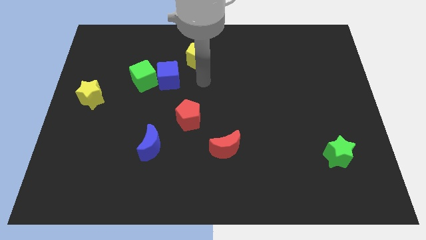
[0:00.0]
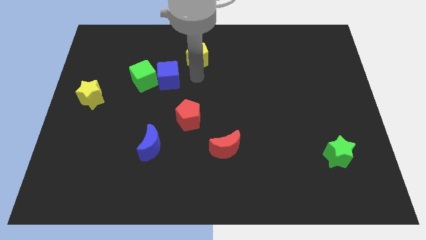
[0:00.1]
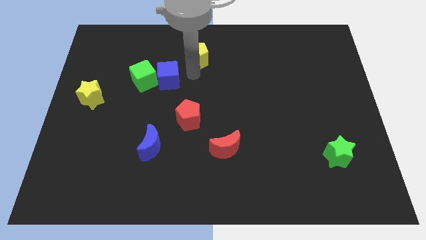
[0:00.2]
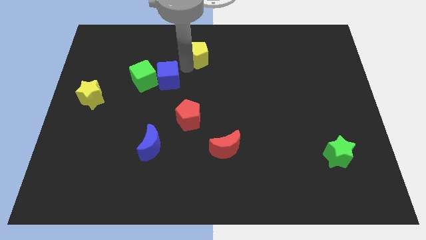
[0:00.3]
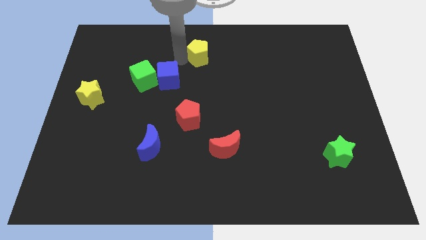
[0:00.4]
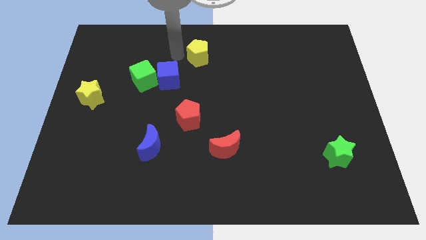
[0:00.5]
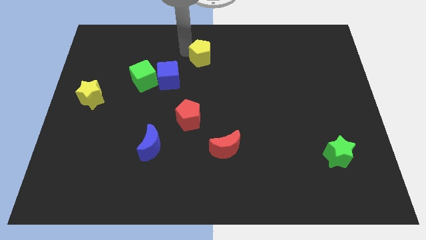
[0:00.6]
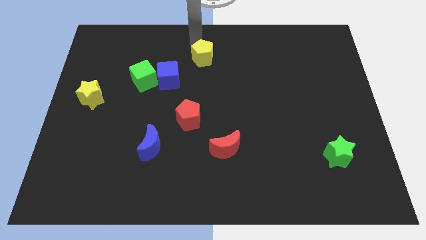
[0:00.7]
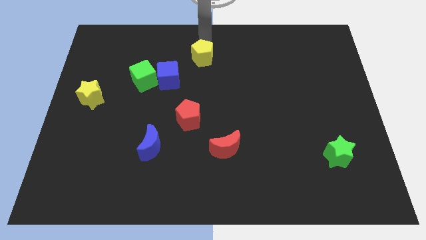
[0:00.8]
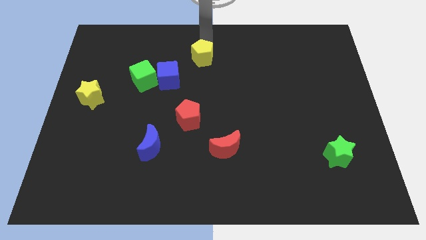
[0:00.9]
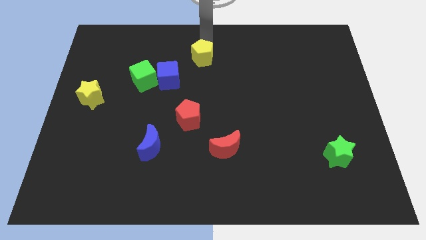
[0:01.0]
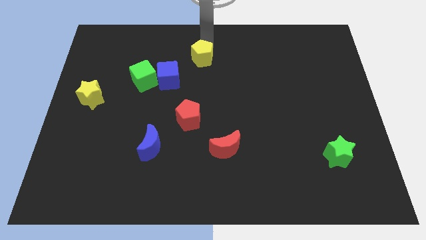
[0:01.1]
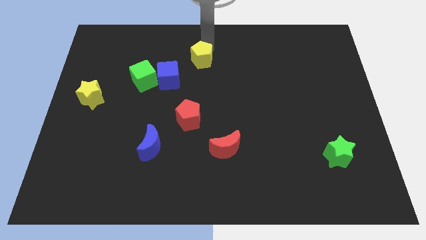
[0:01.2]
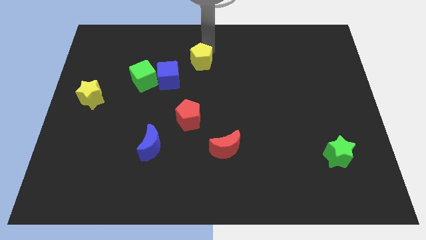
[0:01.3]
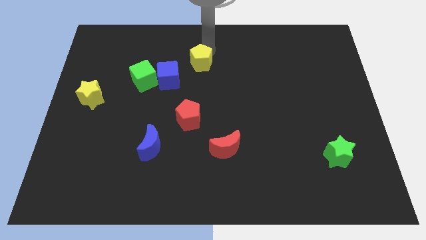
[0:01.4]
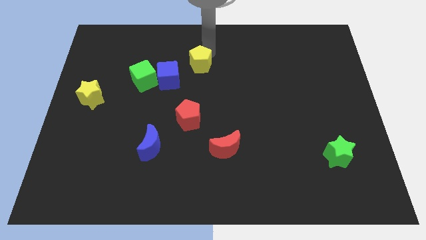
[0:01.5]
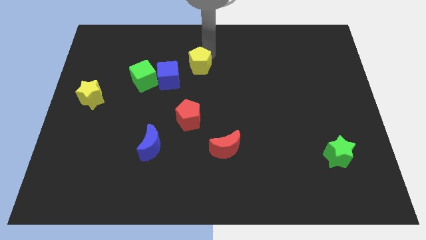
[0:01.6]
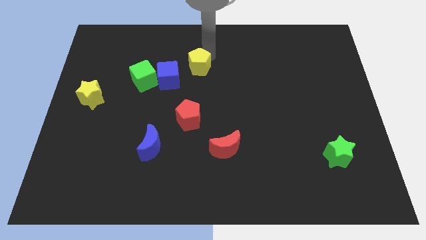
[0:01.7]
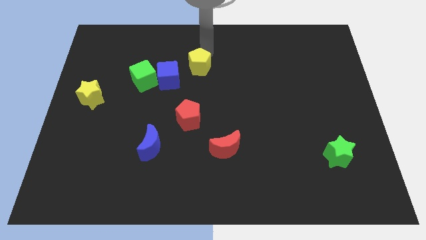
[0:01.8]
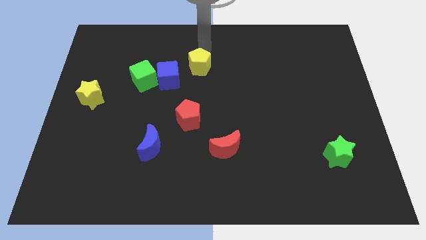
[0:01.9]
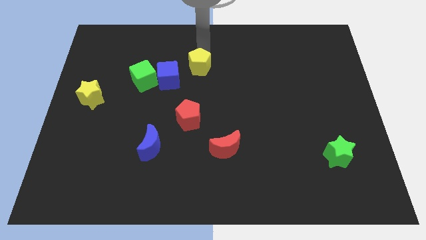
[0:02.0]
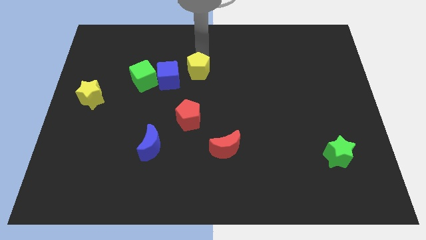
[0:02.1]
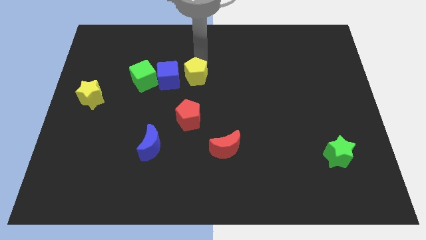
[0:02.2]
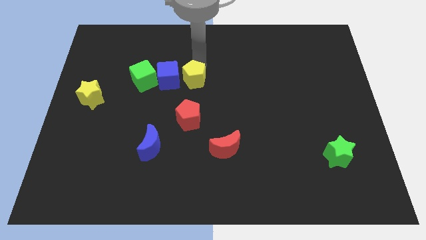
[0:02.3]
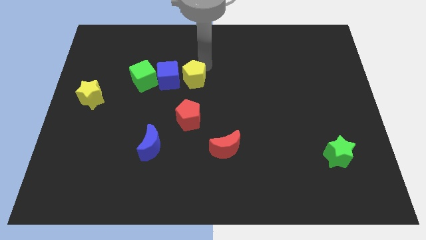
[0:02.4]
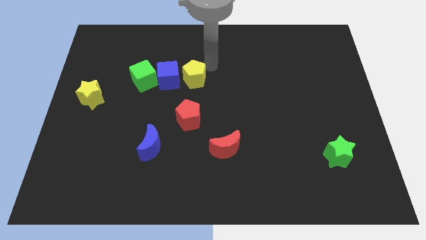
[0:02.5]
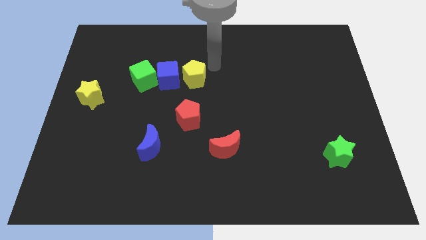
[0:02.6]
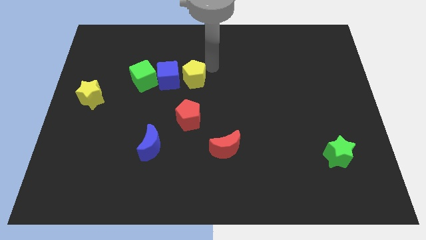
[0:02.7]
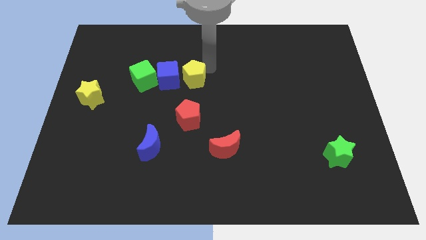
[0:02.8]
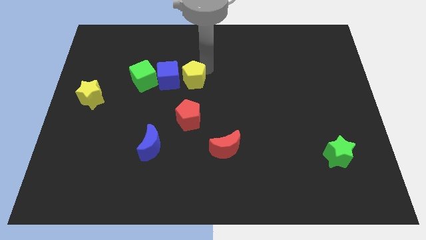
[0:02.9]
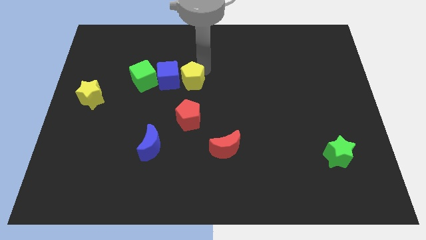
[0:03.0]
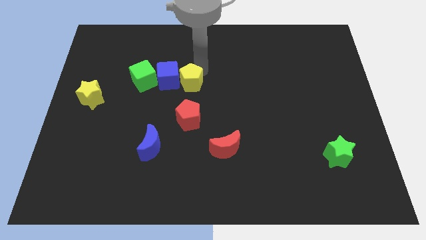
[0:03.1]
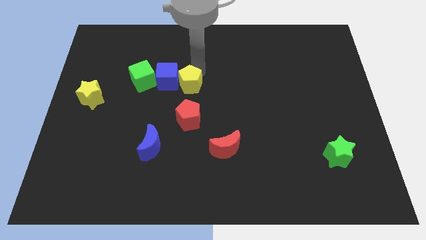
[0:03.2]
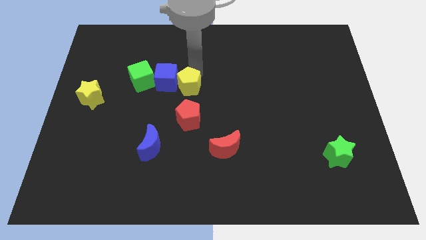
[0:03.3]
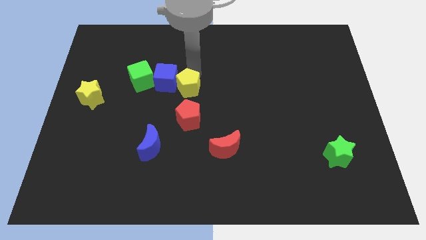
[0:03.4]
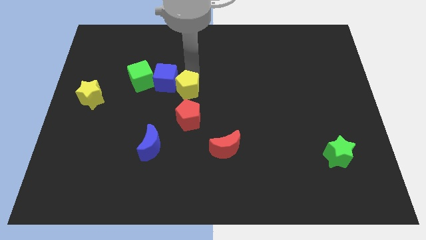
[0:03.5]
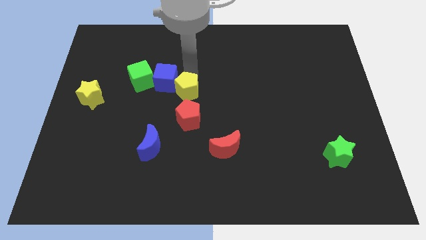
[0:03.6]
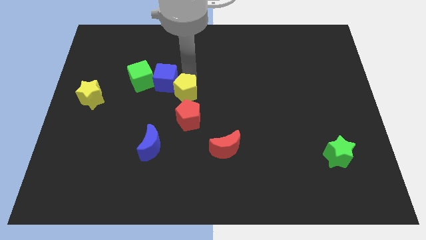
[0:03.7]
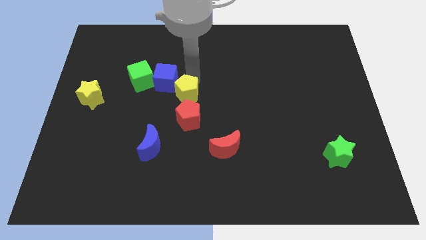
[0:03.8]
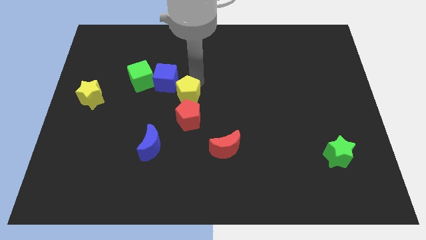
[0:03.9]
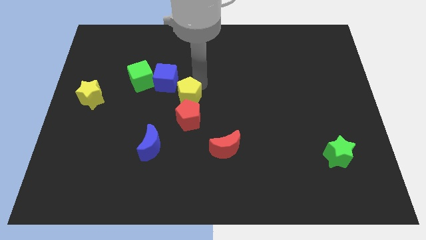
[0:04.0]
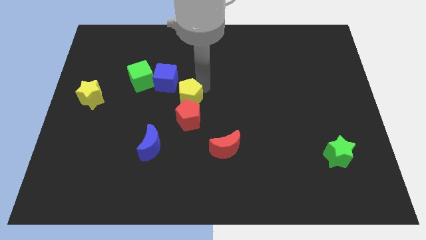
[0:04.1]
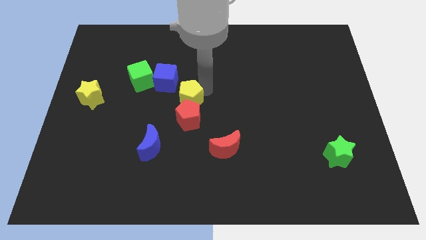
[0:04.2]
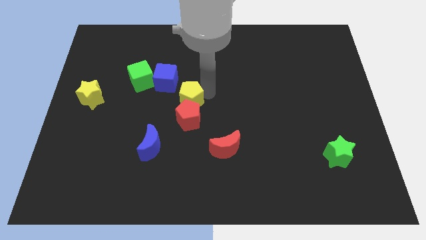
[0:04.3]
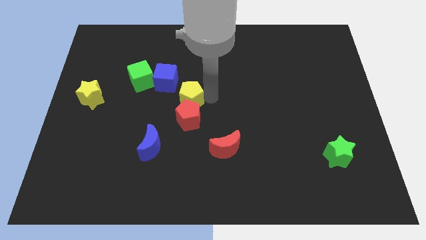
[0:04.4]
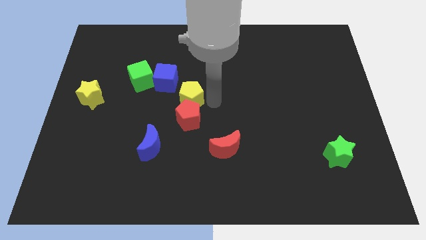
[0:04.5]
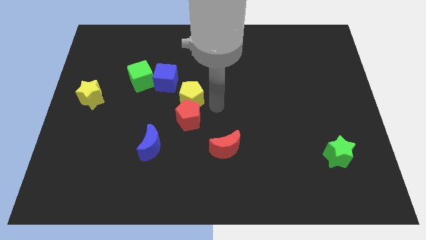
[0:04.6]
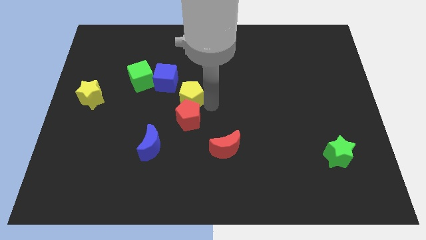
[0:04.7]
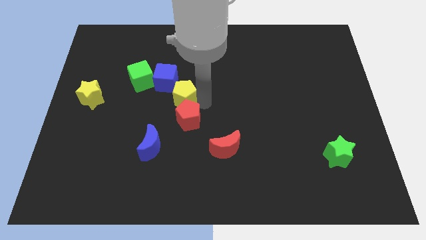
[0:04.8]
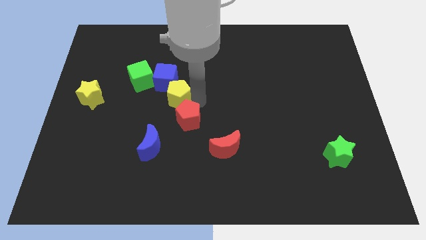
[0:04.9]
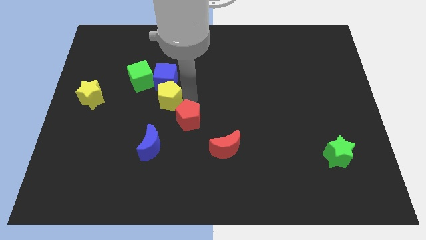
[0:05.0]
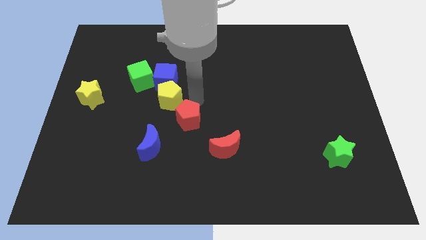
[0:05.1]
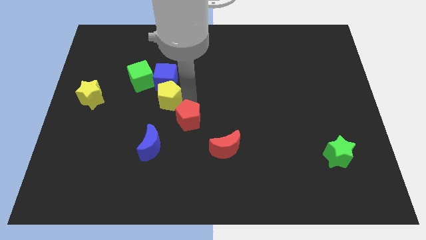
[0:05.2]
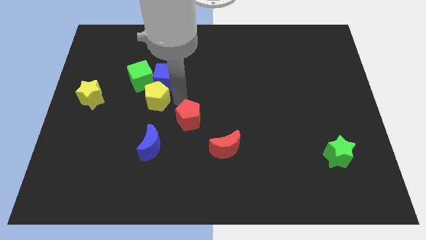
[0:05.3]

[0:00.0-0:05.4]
slide the yellow pentagon just right of the yellow star

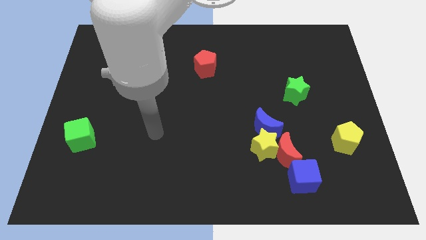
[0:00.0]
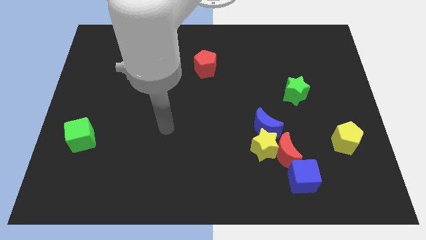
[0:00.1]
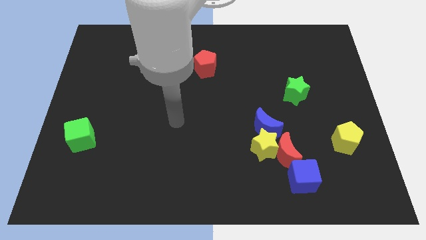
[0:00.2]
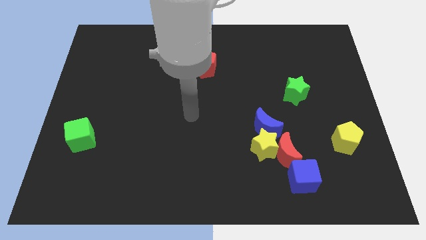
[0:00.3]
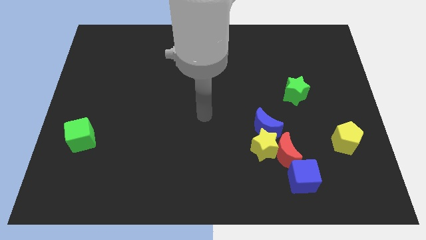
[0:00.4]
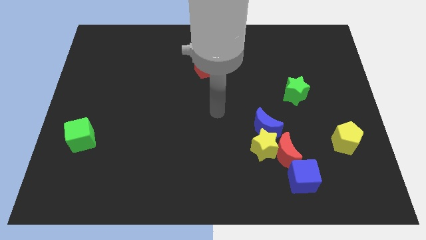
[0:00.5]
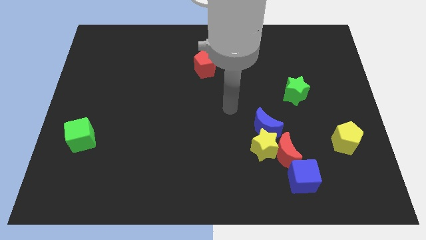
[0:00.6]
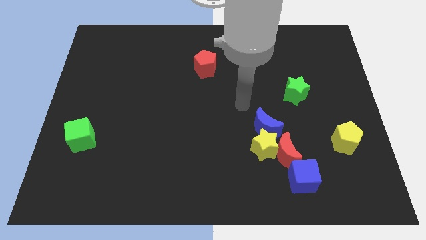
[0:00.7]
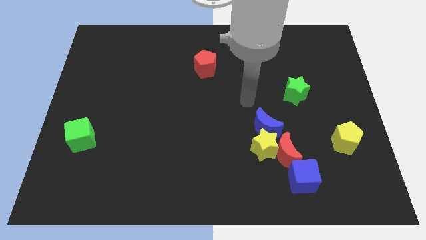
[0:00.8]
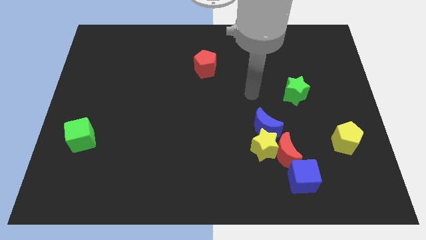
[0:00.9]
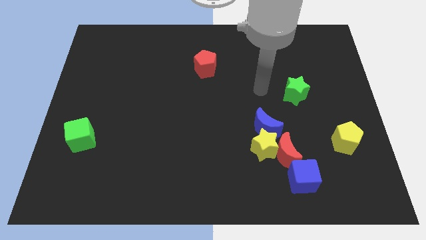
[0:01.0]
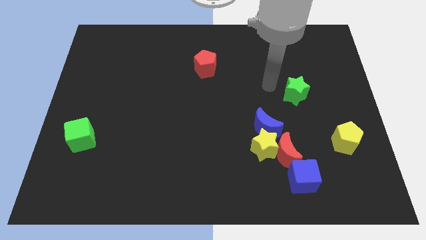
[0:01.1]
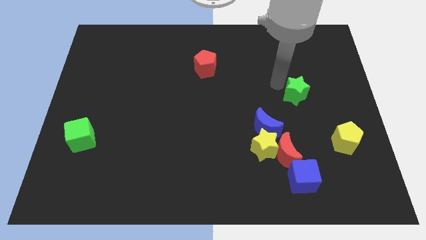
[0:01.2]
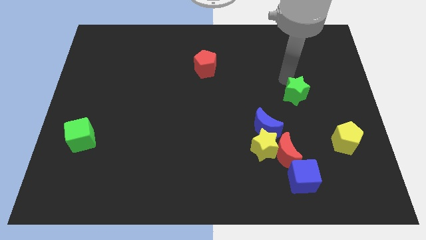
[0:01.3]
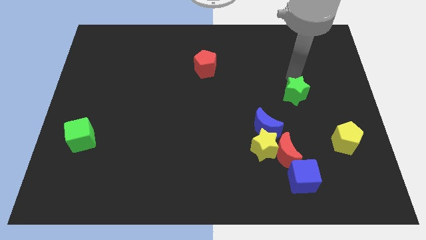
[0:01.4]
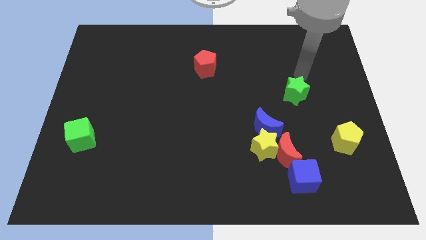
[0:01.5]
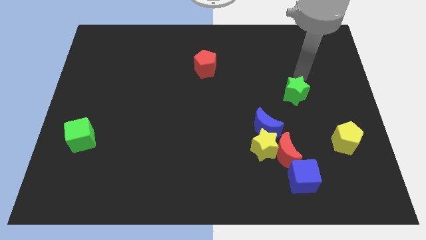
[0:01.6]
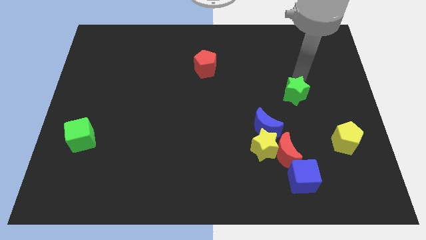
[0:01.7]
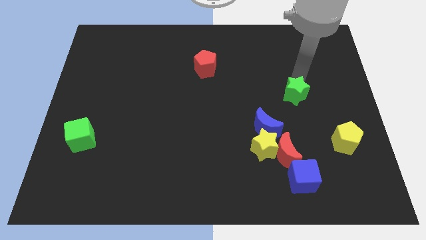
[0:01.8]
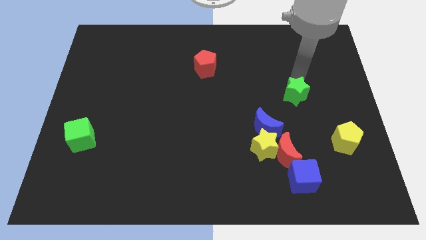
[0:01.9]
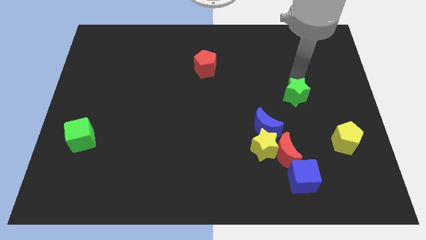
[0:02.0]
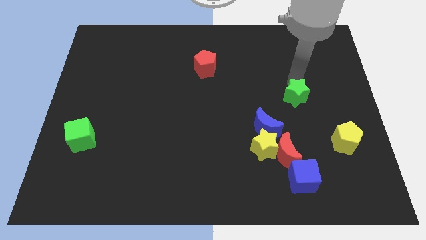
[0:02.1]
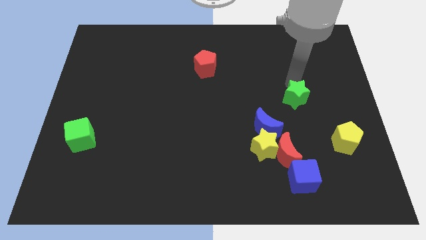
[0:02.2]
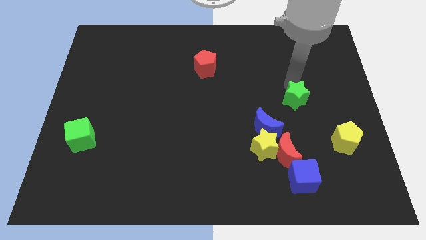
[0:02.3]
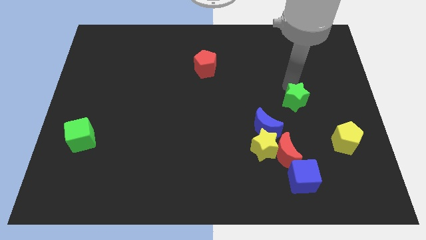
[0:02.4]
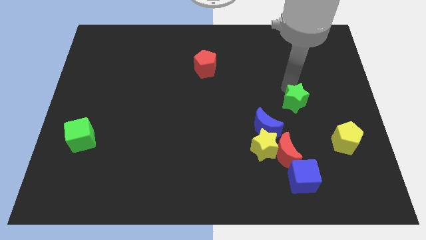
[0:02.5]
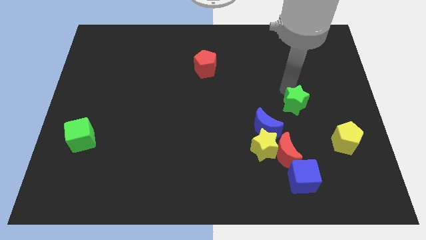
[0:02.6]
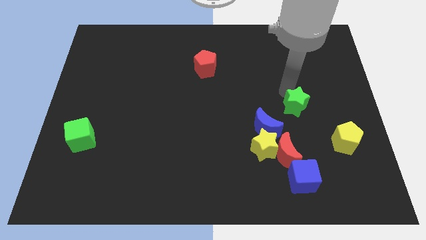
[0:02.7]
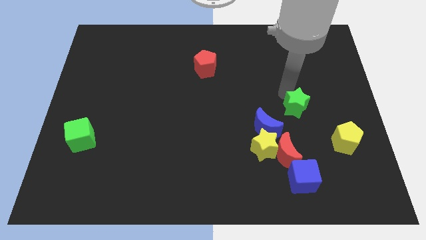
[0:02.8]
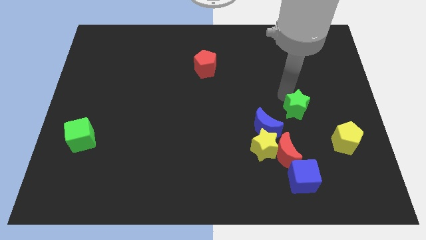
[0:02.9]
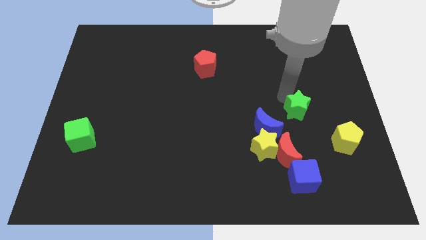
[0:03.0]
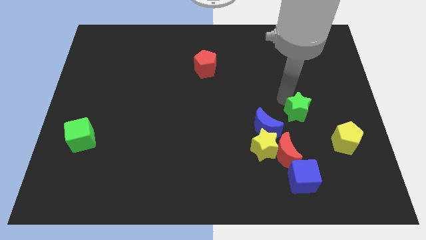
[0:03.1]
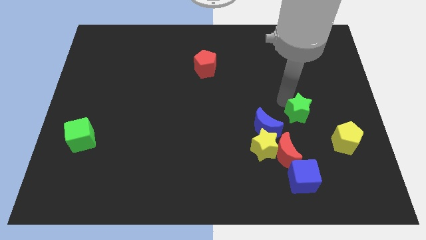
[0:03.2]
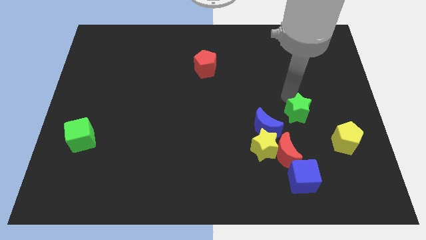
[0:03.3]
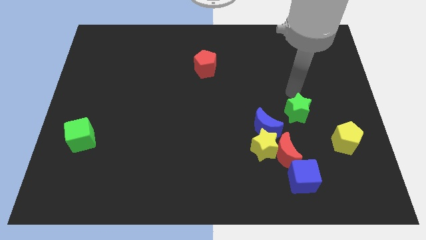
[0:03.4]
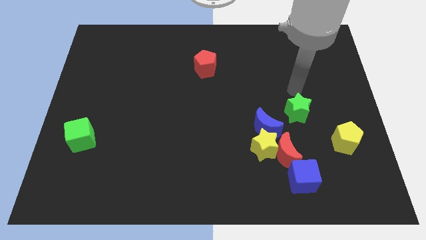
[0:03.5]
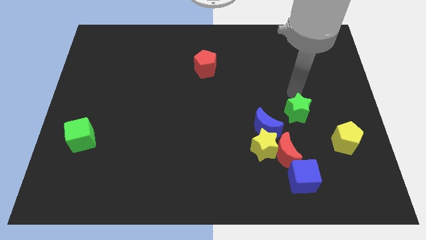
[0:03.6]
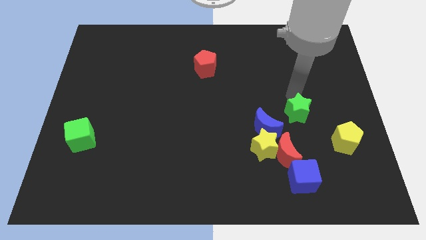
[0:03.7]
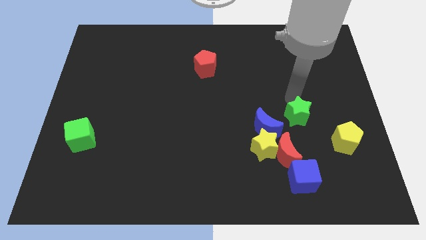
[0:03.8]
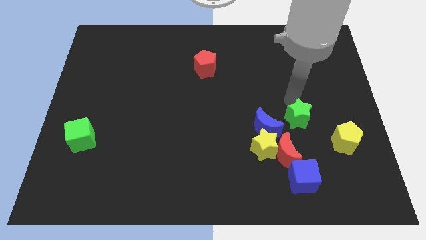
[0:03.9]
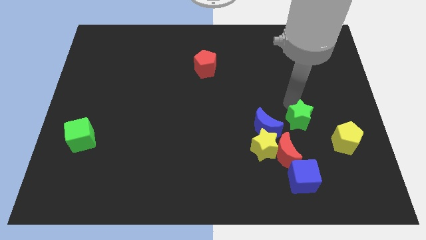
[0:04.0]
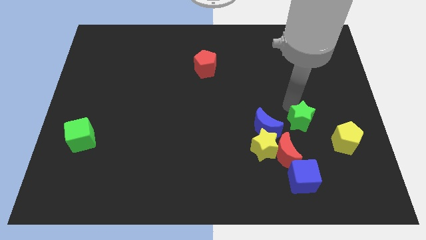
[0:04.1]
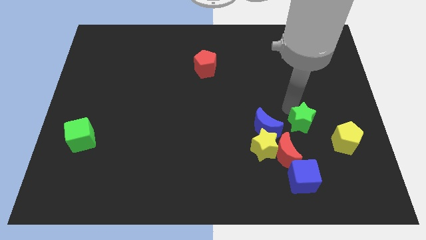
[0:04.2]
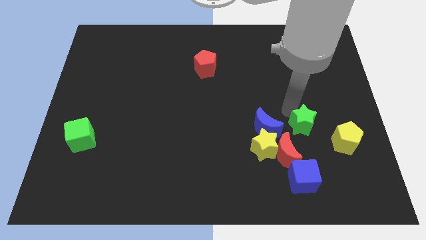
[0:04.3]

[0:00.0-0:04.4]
put the green star left of the yellow pentagon
